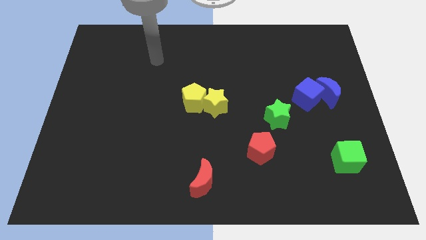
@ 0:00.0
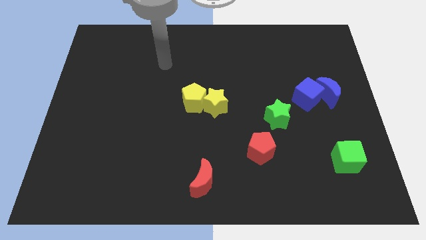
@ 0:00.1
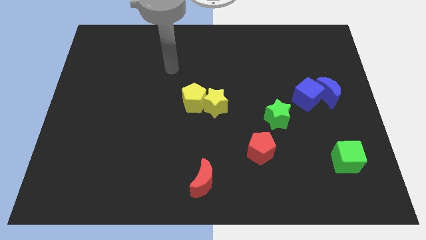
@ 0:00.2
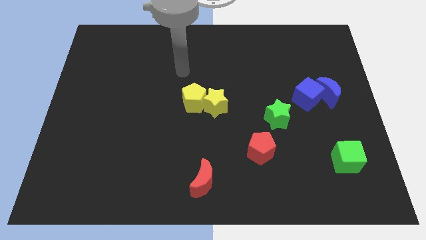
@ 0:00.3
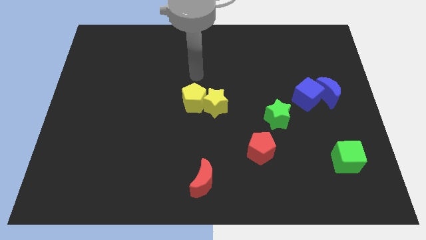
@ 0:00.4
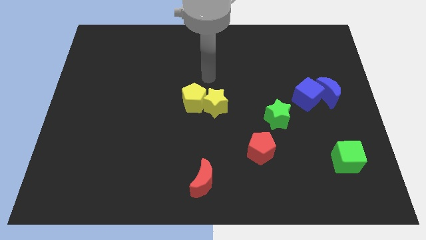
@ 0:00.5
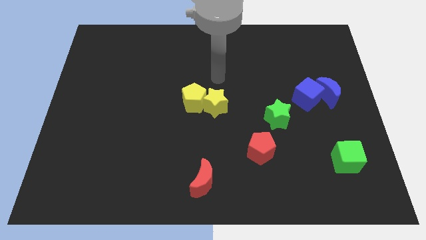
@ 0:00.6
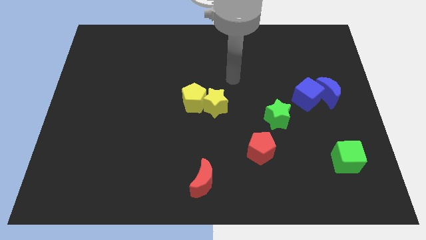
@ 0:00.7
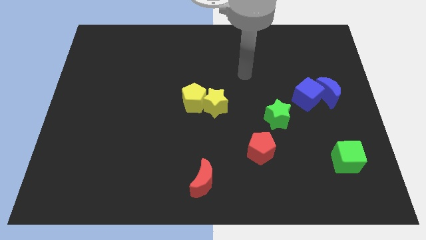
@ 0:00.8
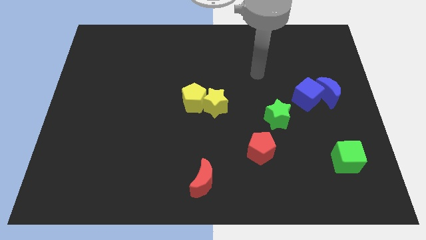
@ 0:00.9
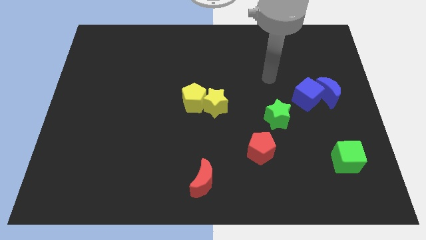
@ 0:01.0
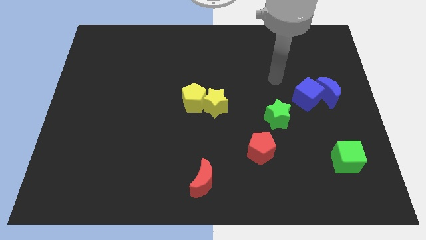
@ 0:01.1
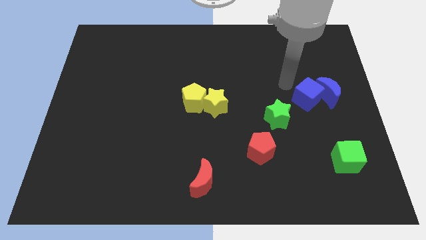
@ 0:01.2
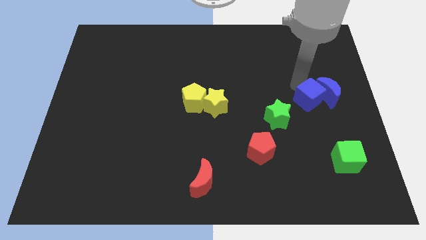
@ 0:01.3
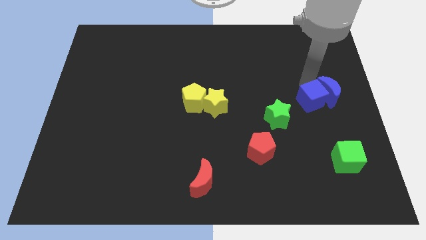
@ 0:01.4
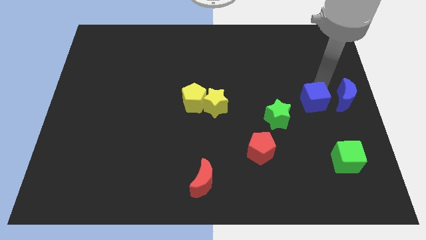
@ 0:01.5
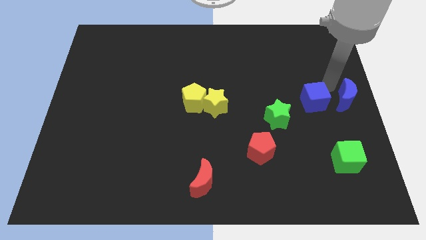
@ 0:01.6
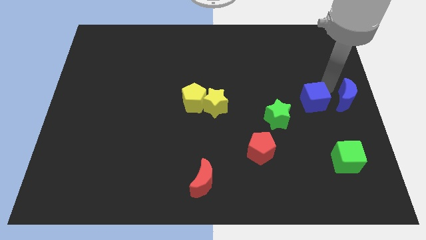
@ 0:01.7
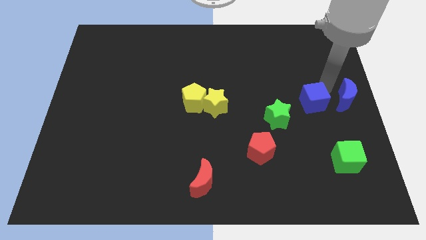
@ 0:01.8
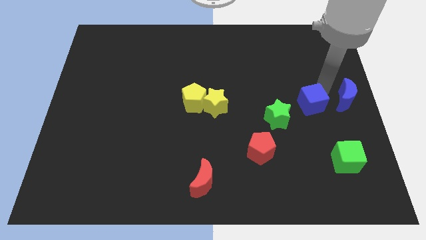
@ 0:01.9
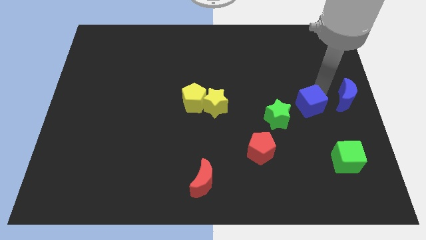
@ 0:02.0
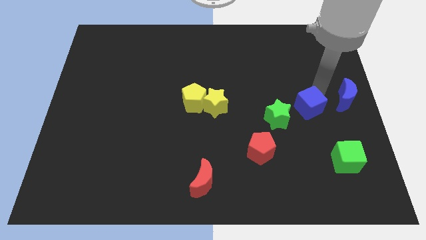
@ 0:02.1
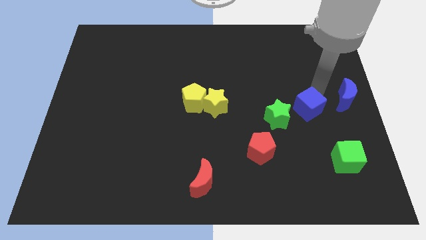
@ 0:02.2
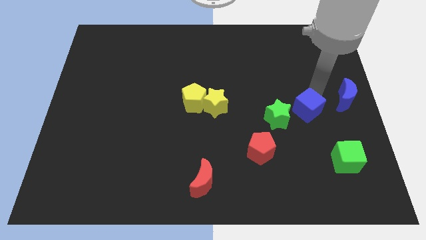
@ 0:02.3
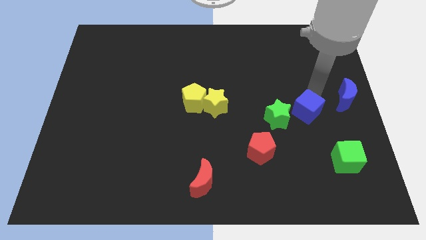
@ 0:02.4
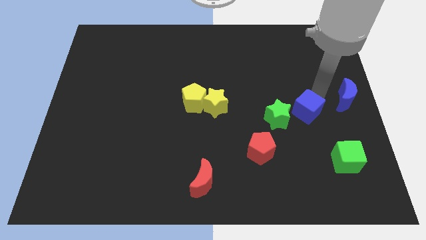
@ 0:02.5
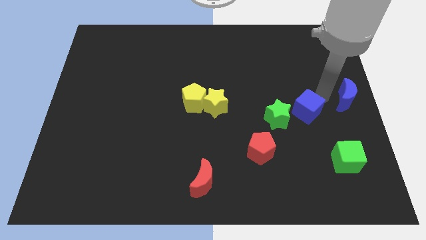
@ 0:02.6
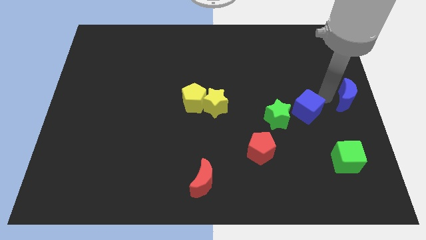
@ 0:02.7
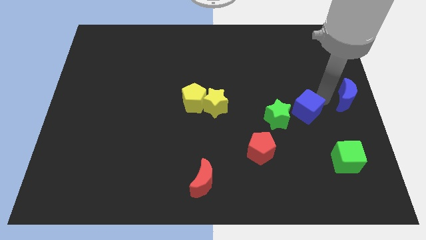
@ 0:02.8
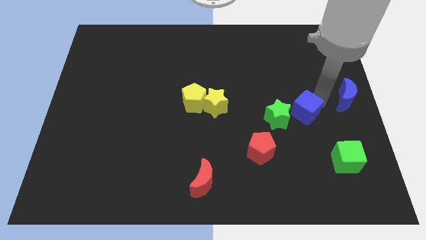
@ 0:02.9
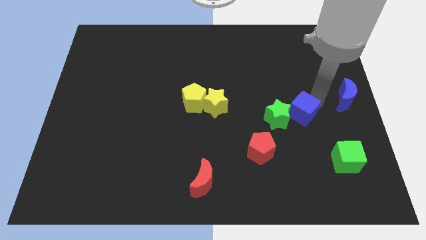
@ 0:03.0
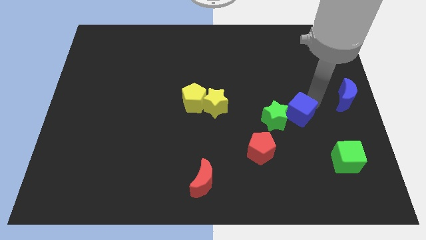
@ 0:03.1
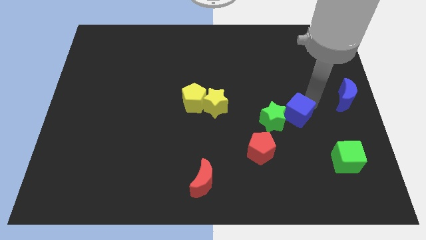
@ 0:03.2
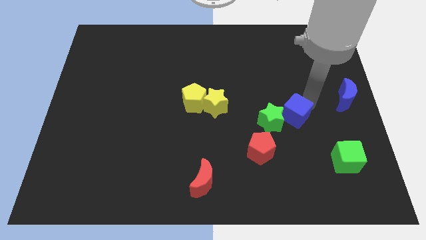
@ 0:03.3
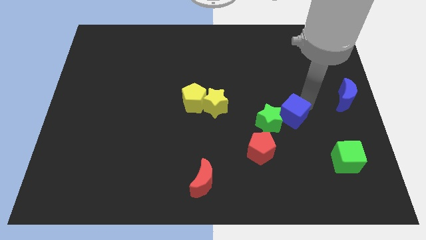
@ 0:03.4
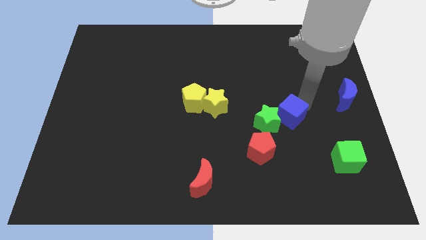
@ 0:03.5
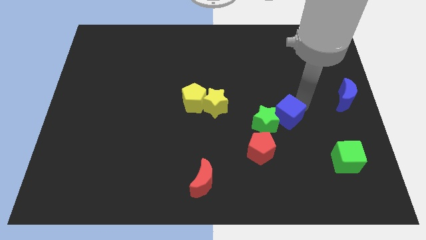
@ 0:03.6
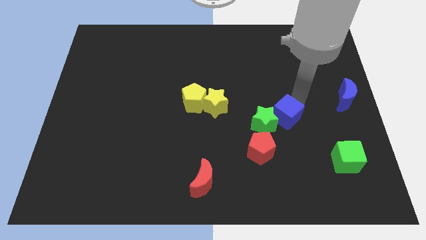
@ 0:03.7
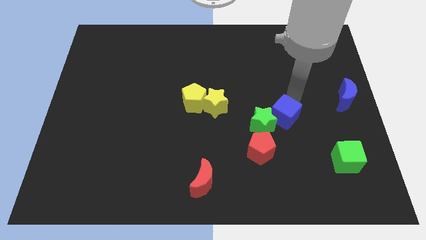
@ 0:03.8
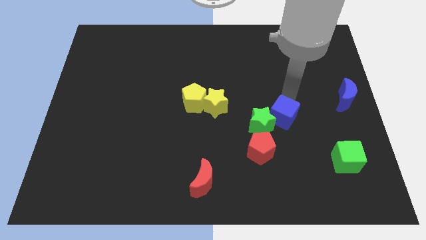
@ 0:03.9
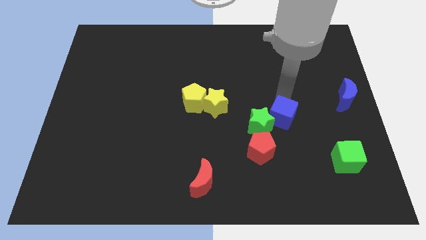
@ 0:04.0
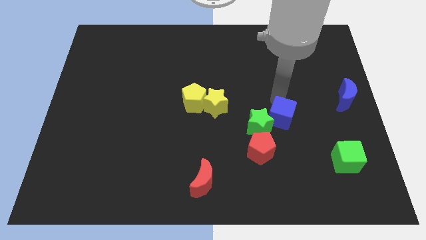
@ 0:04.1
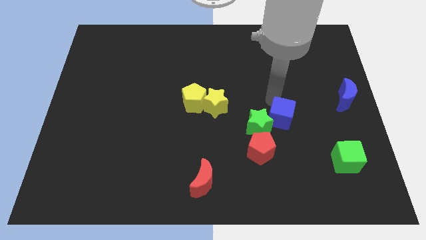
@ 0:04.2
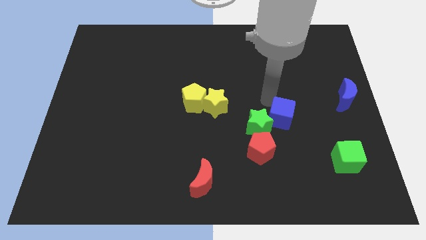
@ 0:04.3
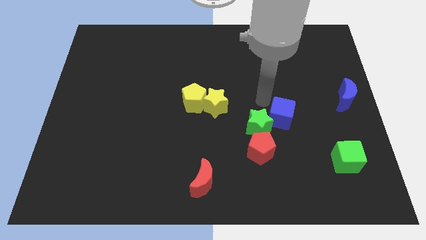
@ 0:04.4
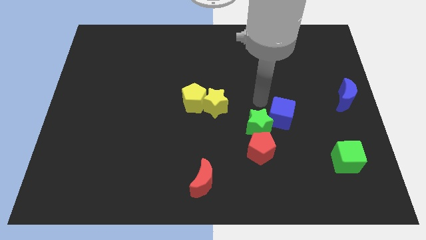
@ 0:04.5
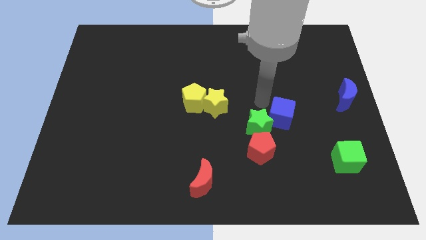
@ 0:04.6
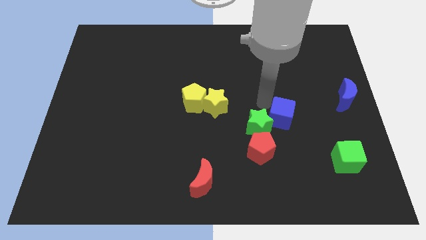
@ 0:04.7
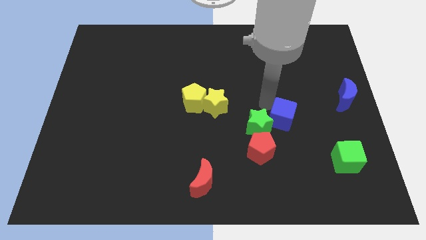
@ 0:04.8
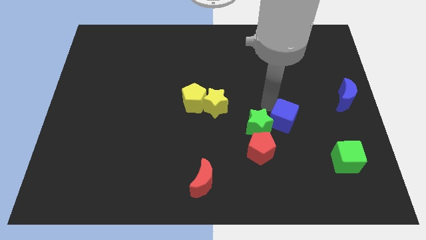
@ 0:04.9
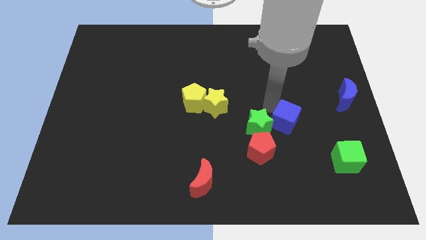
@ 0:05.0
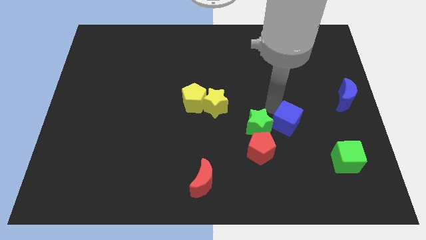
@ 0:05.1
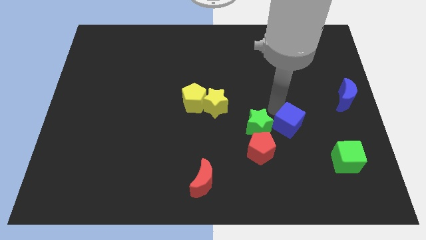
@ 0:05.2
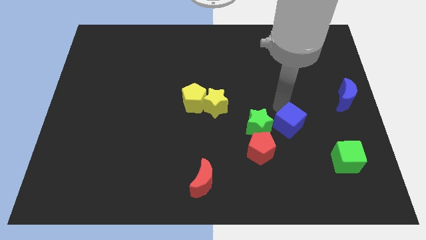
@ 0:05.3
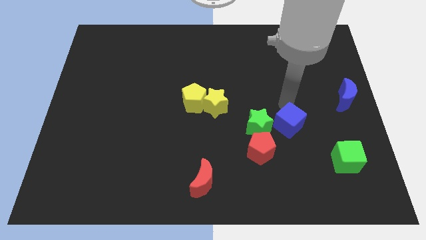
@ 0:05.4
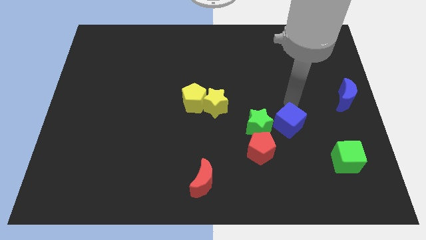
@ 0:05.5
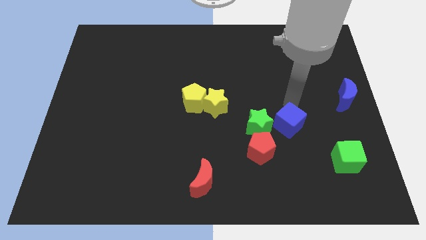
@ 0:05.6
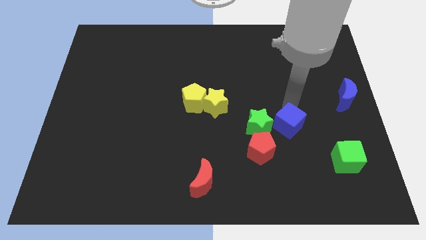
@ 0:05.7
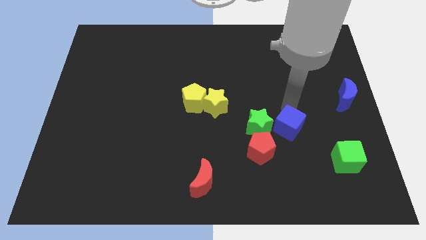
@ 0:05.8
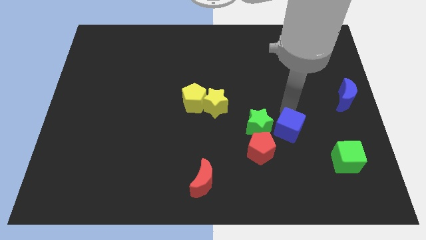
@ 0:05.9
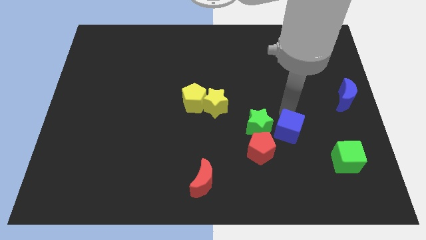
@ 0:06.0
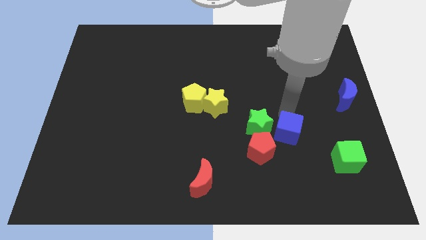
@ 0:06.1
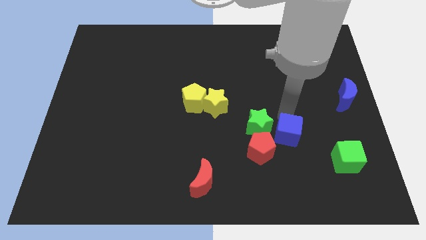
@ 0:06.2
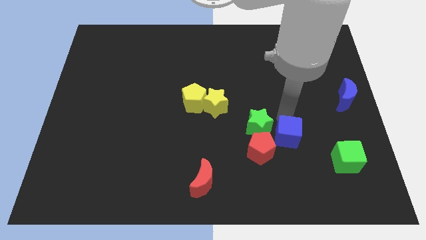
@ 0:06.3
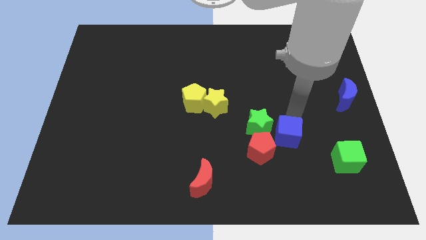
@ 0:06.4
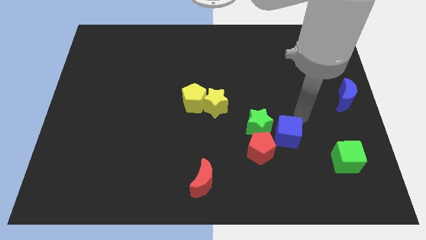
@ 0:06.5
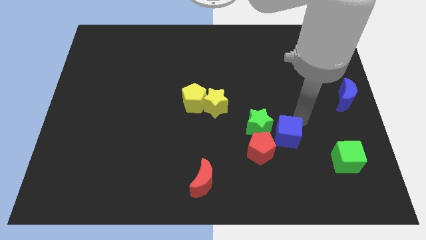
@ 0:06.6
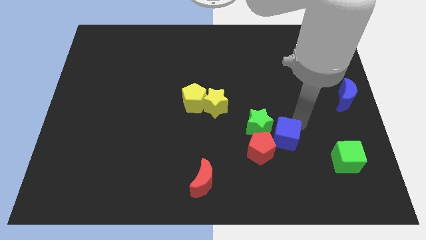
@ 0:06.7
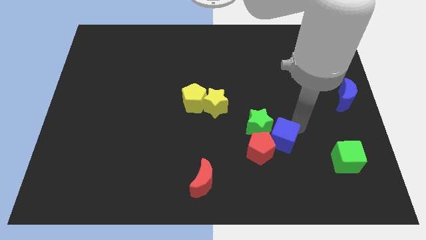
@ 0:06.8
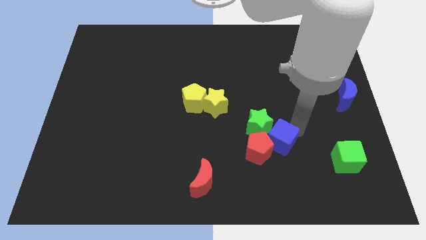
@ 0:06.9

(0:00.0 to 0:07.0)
slide the blue cube to the bottom side of the green star

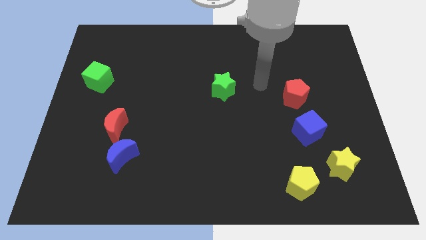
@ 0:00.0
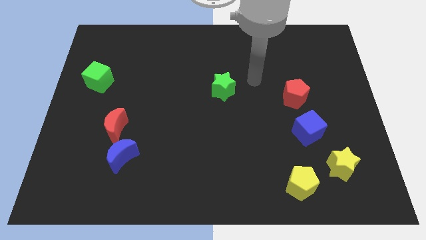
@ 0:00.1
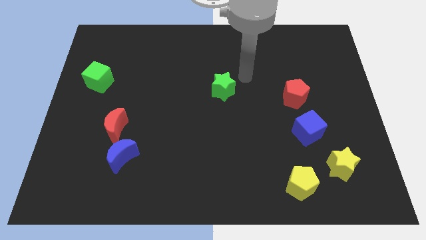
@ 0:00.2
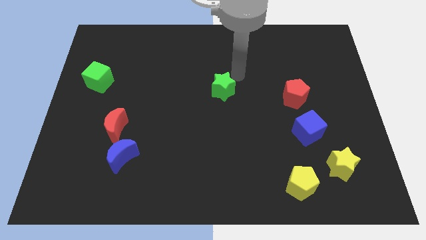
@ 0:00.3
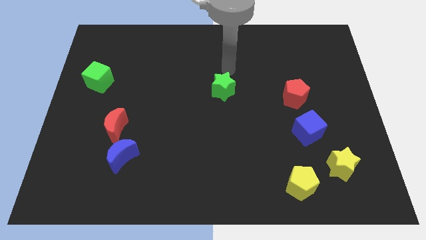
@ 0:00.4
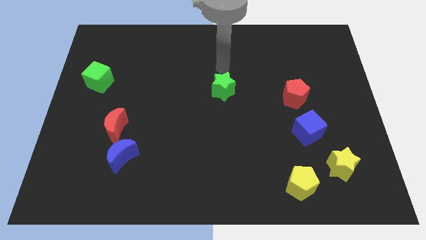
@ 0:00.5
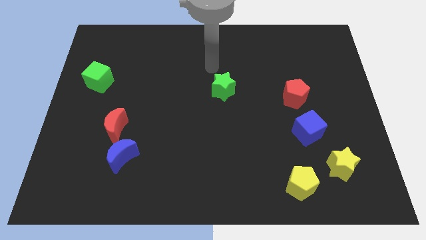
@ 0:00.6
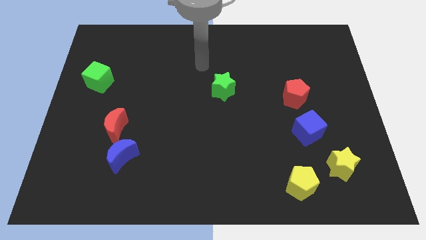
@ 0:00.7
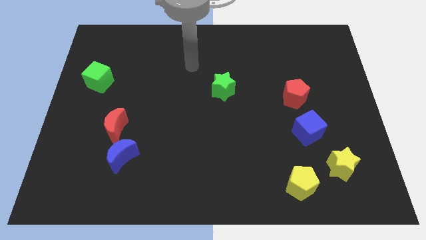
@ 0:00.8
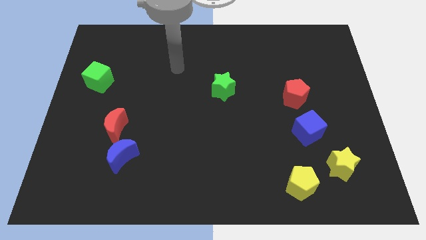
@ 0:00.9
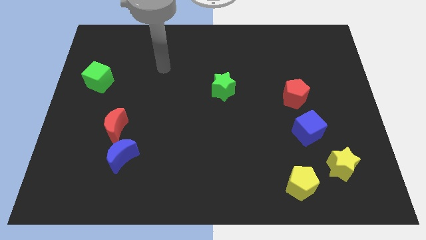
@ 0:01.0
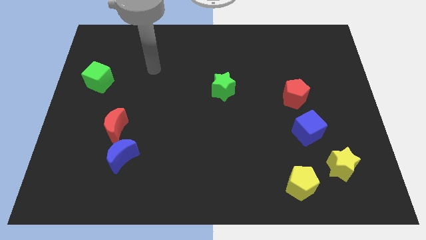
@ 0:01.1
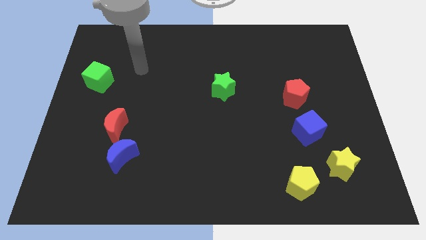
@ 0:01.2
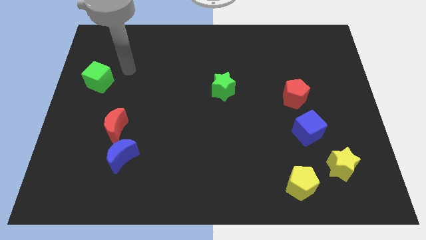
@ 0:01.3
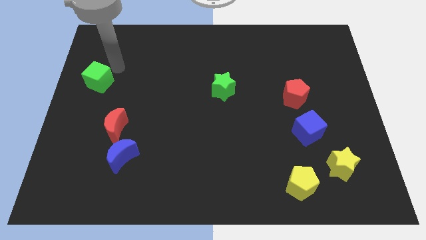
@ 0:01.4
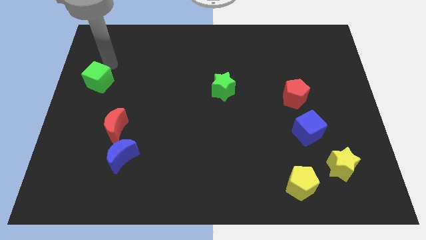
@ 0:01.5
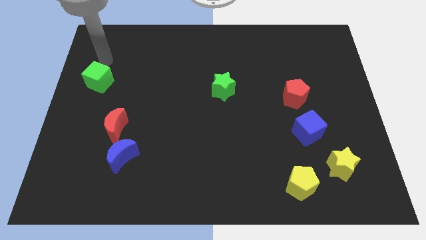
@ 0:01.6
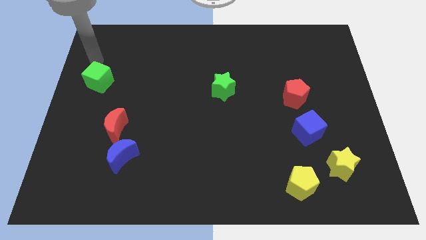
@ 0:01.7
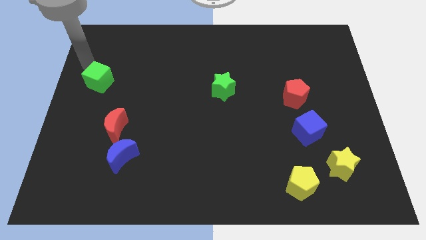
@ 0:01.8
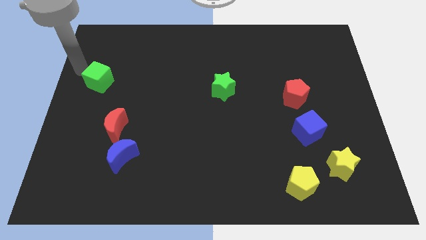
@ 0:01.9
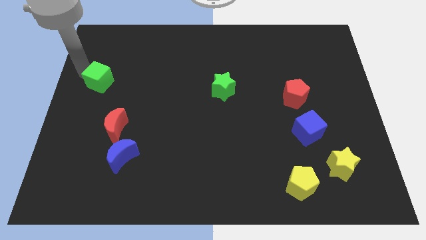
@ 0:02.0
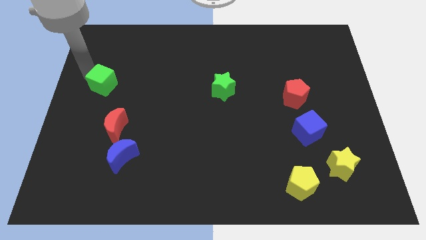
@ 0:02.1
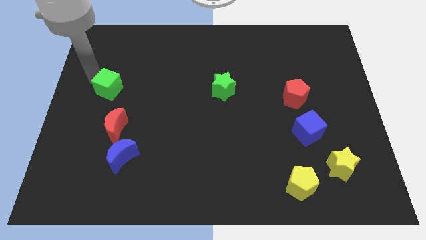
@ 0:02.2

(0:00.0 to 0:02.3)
push the green cube above the red moon
